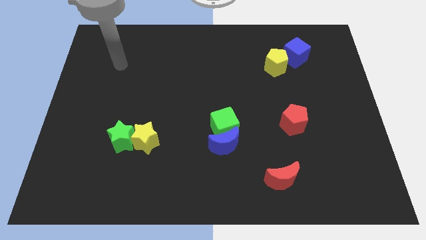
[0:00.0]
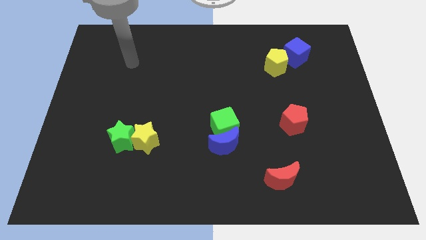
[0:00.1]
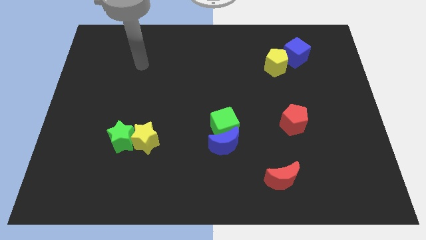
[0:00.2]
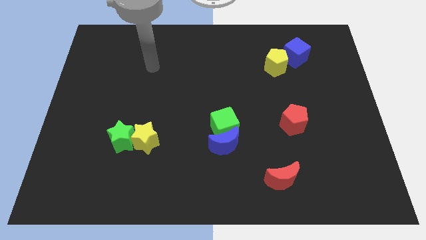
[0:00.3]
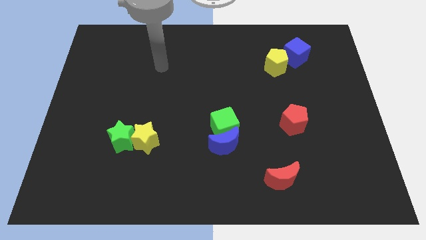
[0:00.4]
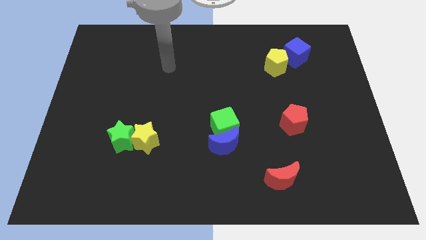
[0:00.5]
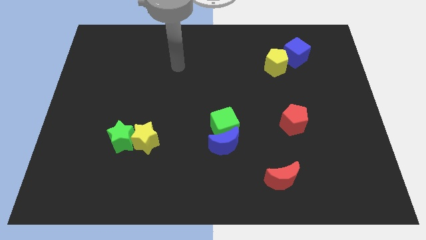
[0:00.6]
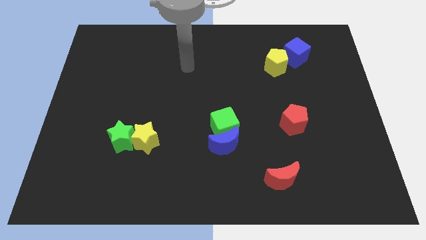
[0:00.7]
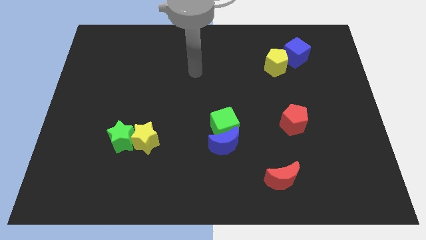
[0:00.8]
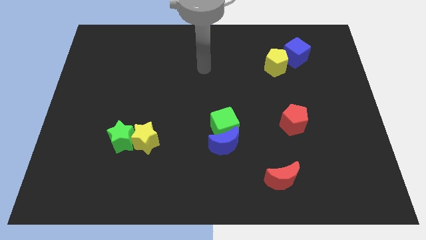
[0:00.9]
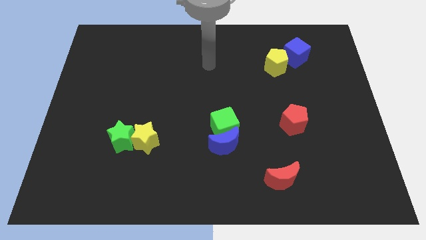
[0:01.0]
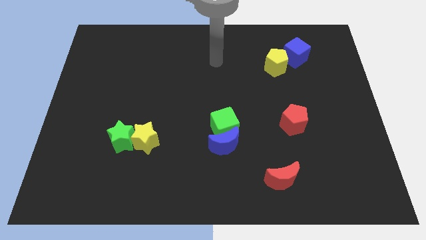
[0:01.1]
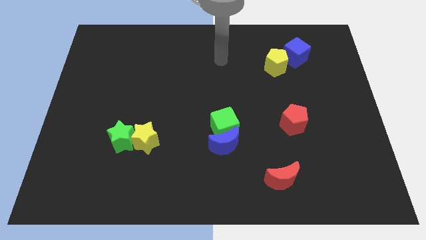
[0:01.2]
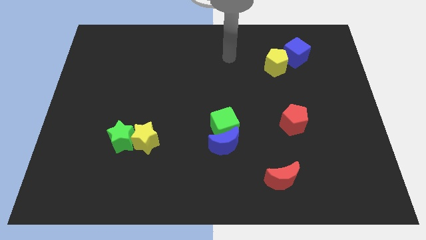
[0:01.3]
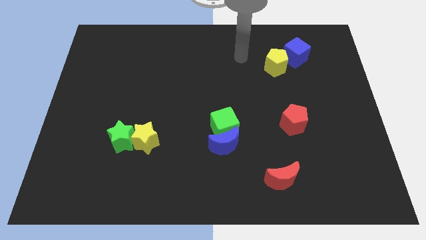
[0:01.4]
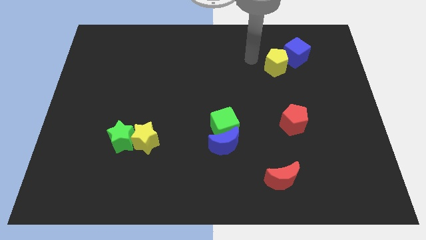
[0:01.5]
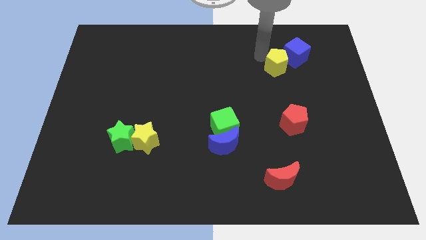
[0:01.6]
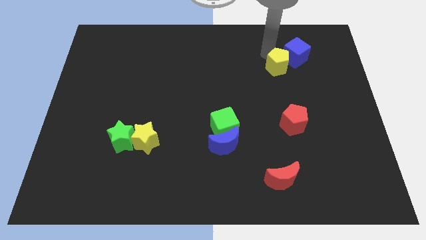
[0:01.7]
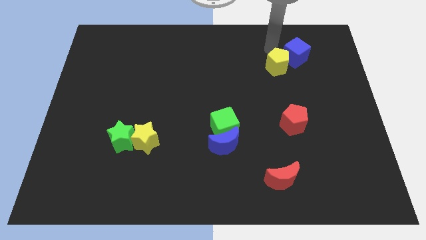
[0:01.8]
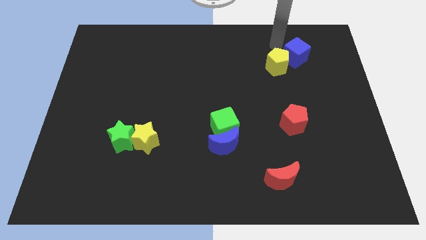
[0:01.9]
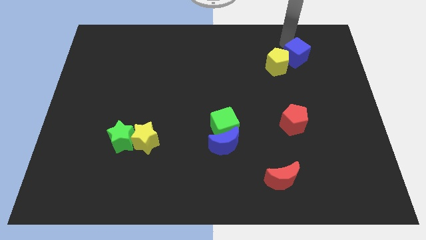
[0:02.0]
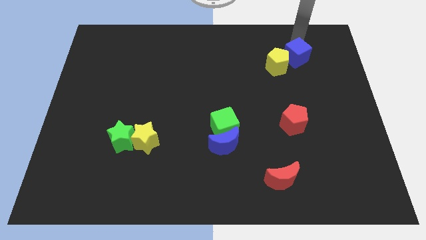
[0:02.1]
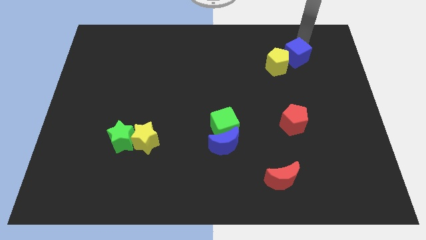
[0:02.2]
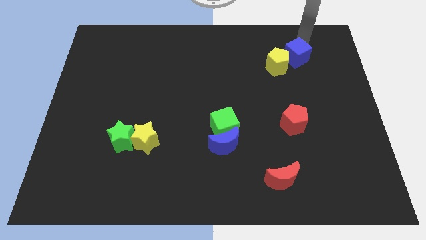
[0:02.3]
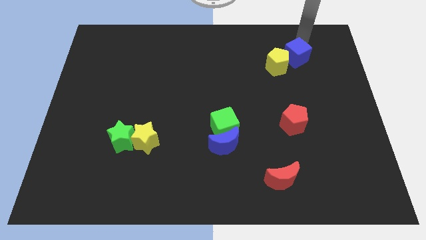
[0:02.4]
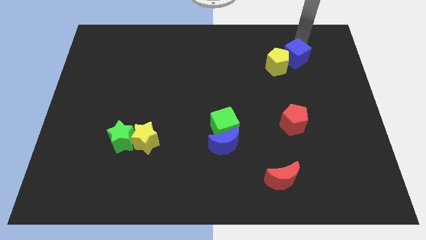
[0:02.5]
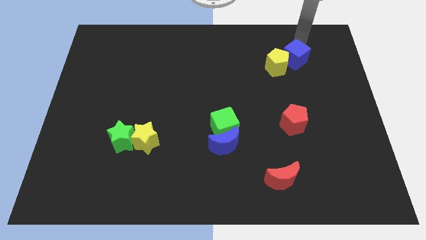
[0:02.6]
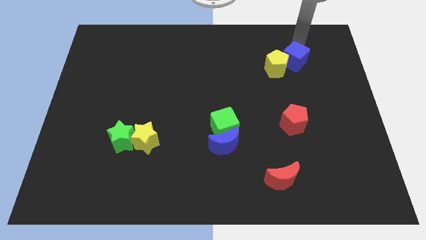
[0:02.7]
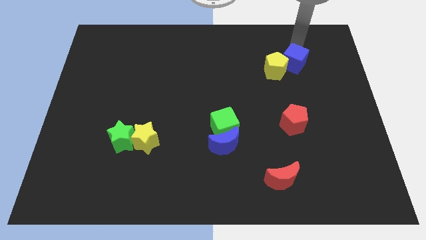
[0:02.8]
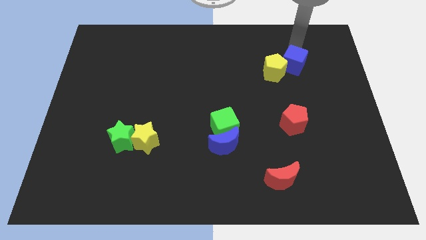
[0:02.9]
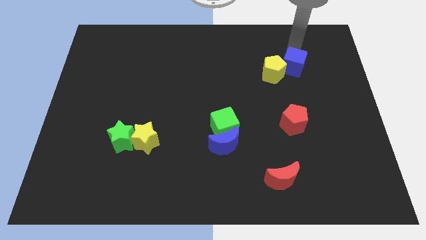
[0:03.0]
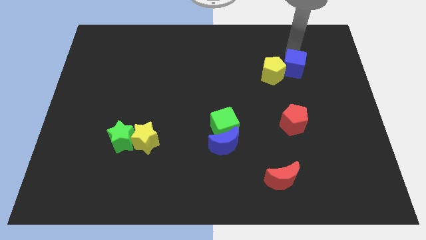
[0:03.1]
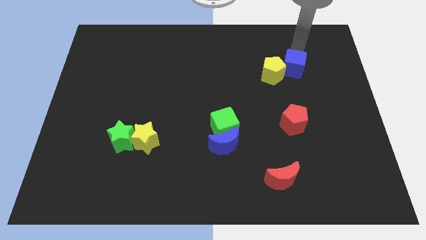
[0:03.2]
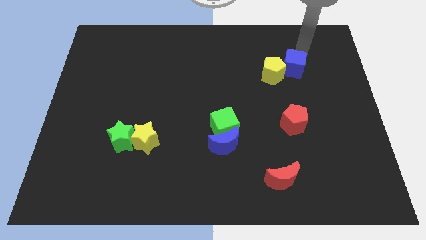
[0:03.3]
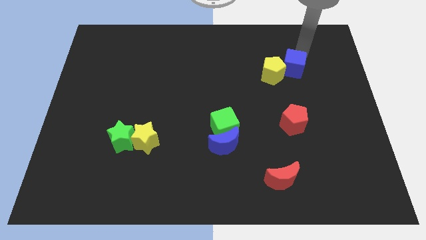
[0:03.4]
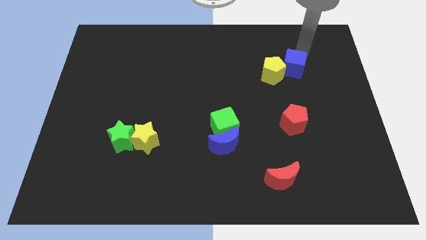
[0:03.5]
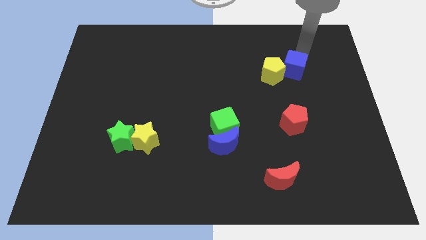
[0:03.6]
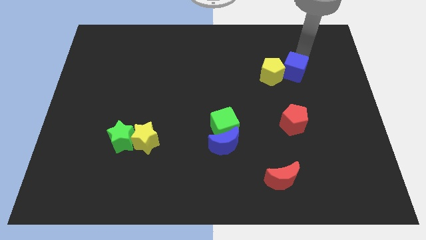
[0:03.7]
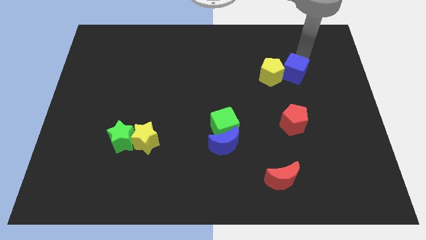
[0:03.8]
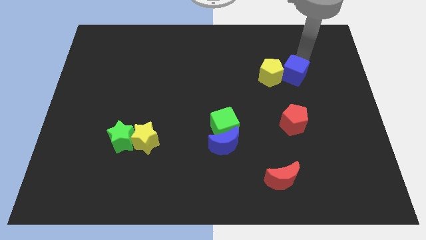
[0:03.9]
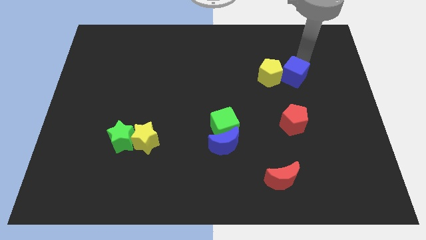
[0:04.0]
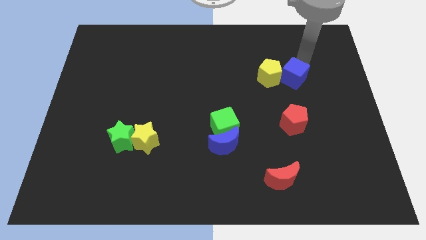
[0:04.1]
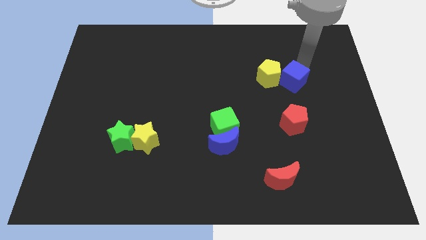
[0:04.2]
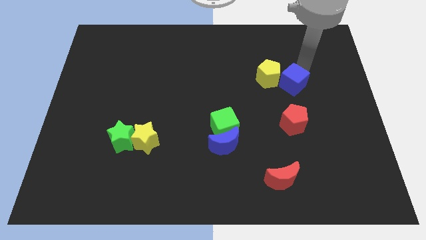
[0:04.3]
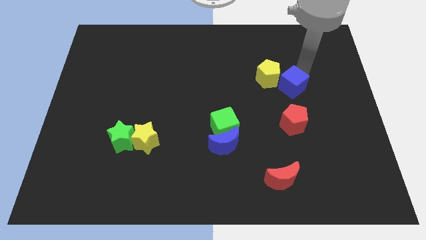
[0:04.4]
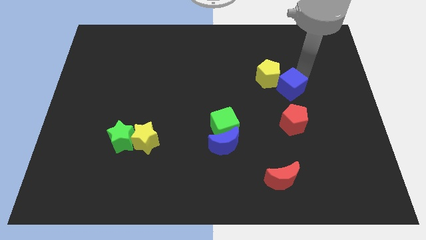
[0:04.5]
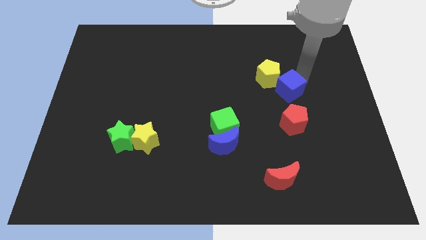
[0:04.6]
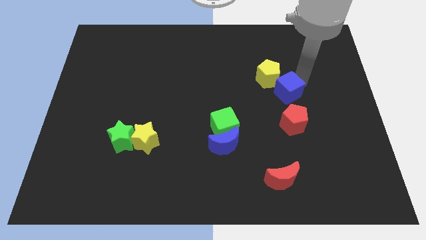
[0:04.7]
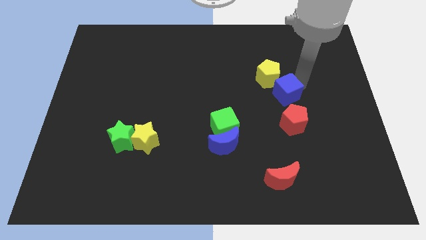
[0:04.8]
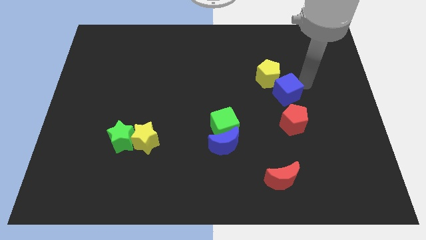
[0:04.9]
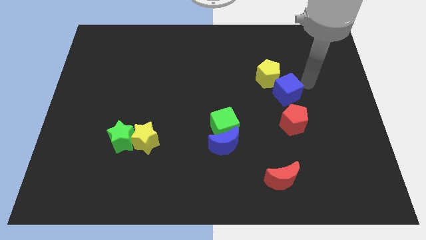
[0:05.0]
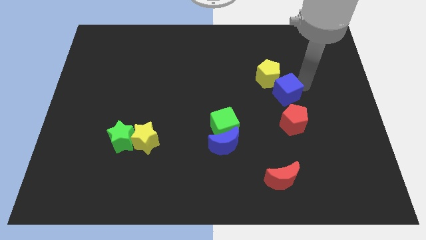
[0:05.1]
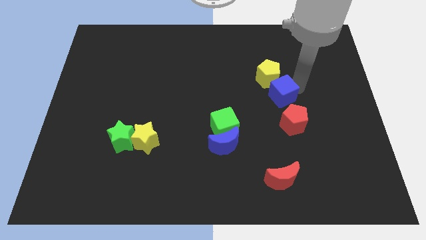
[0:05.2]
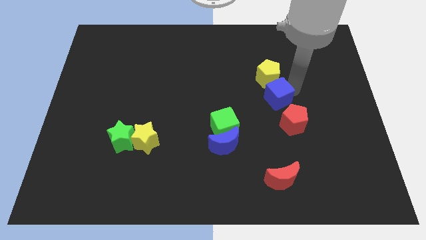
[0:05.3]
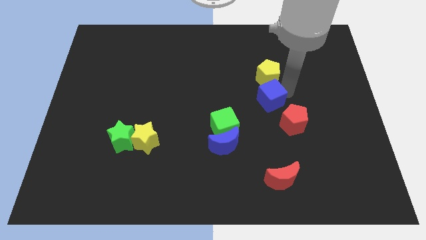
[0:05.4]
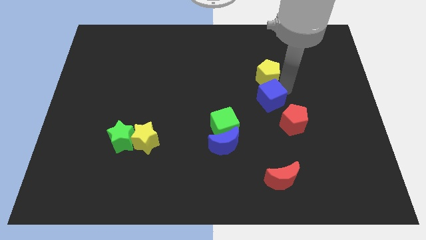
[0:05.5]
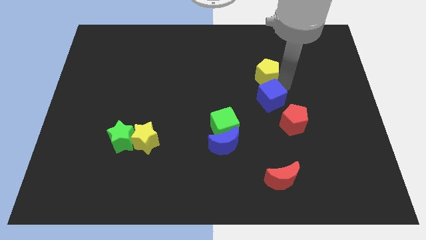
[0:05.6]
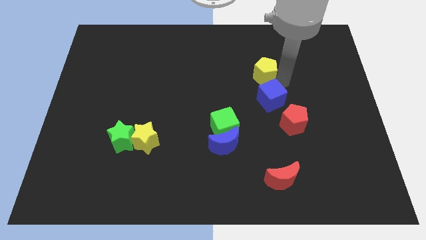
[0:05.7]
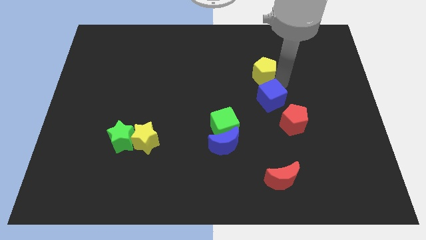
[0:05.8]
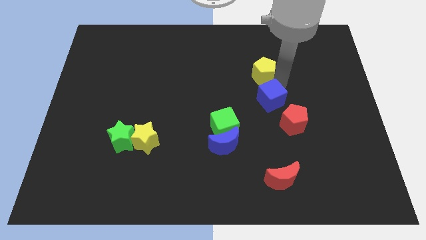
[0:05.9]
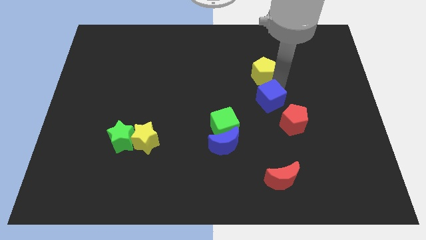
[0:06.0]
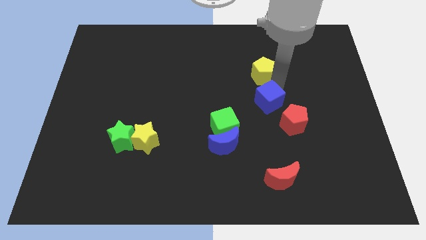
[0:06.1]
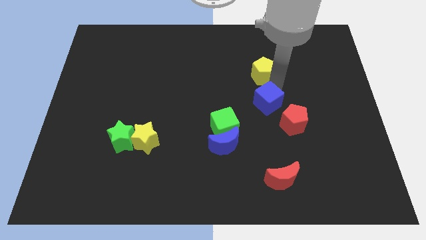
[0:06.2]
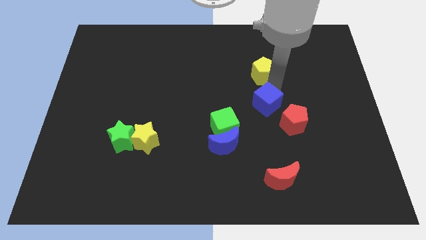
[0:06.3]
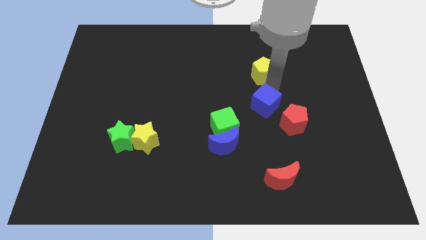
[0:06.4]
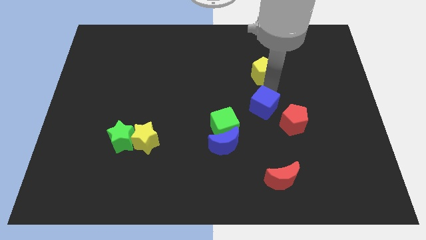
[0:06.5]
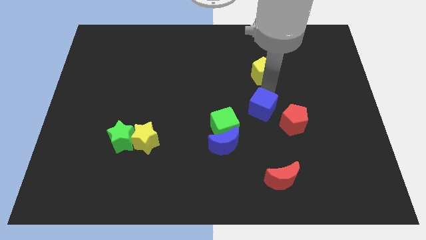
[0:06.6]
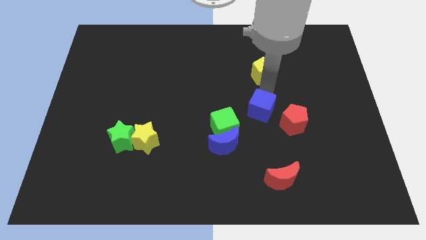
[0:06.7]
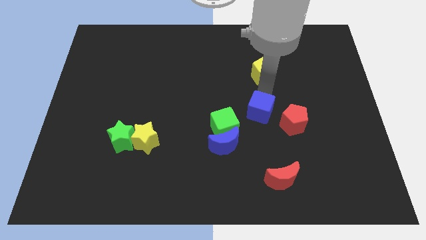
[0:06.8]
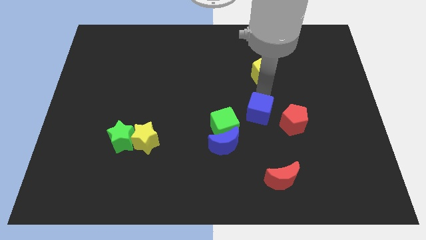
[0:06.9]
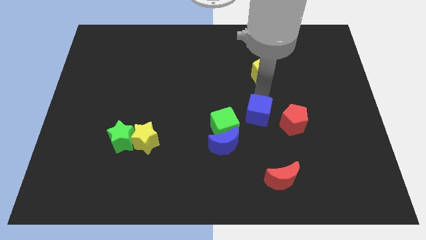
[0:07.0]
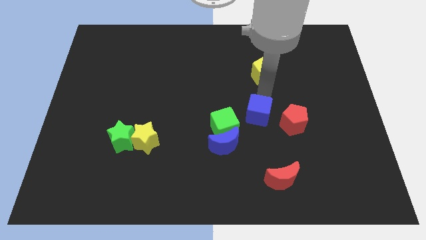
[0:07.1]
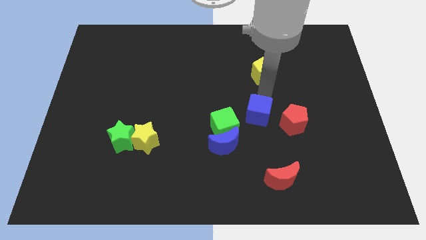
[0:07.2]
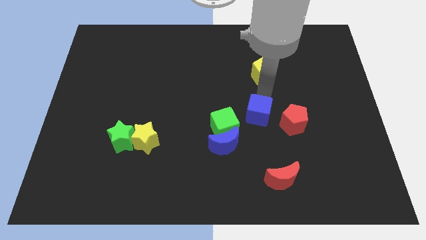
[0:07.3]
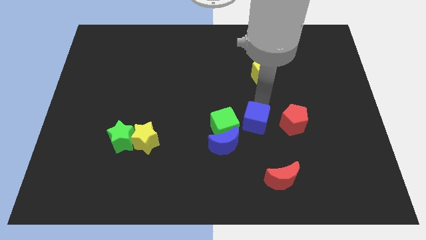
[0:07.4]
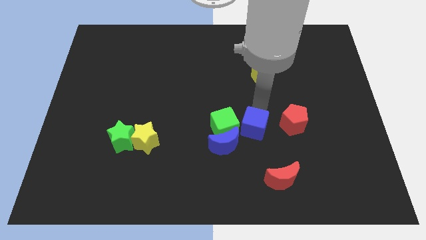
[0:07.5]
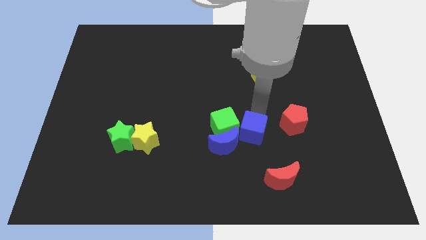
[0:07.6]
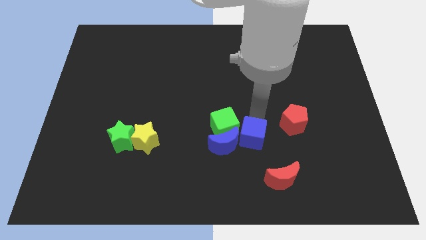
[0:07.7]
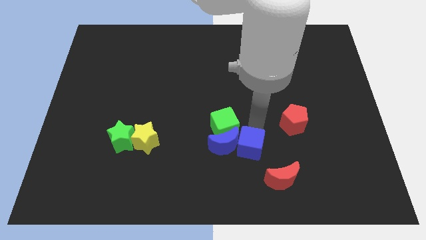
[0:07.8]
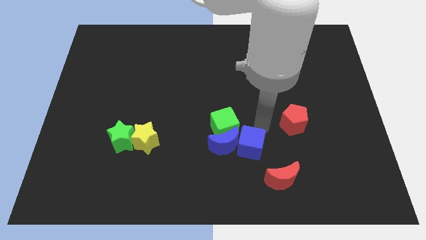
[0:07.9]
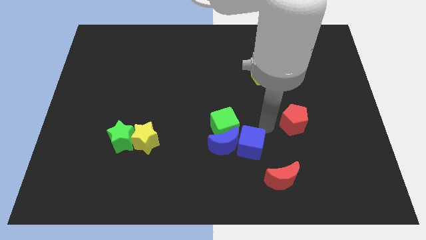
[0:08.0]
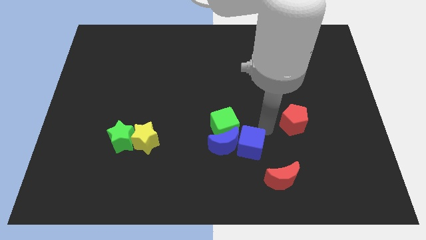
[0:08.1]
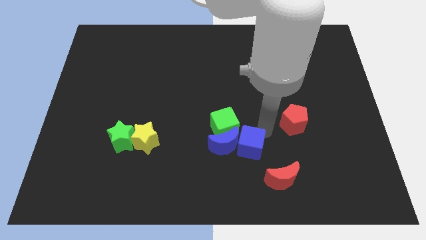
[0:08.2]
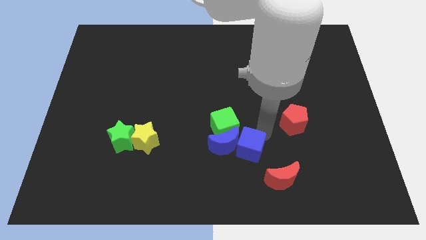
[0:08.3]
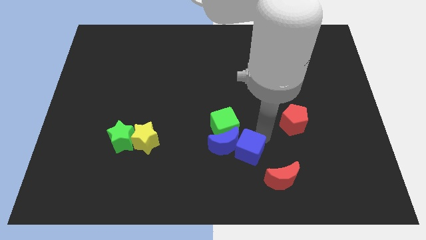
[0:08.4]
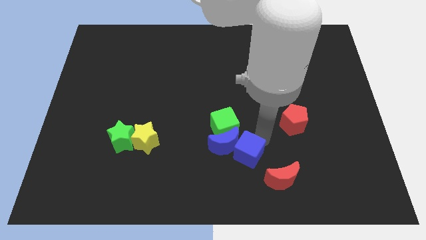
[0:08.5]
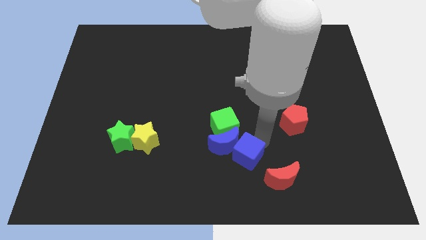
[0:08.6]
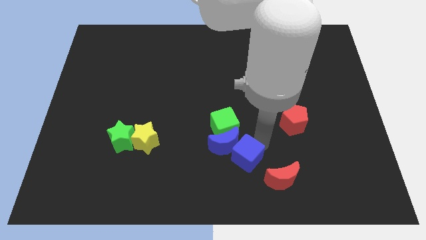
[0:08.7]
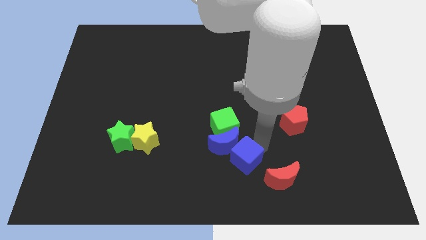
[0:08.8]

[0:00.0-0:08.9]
put the blue cube left of the red moon
